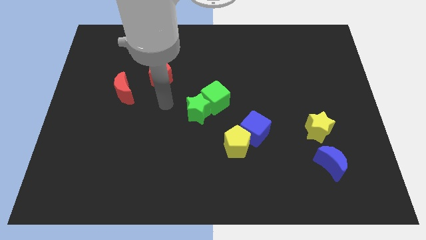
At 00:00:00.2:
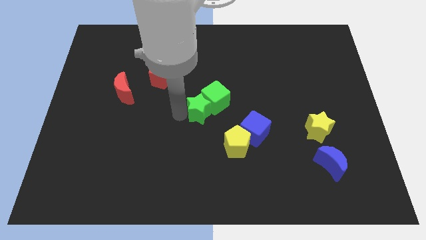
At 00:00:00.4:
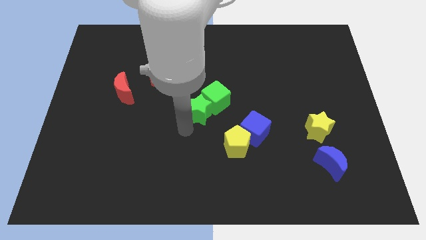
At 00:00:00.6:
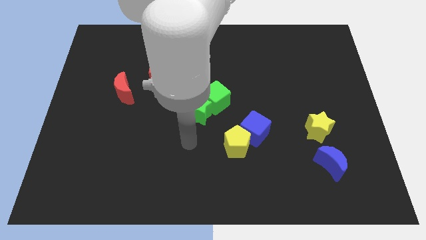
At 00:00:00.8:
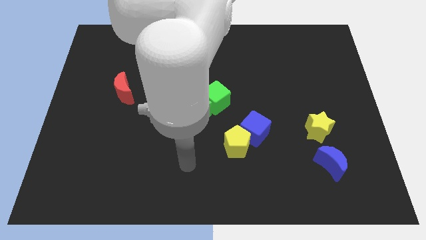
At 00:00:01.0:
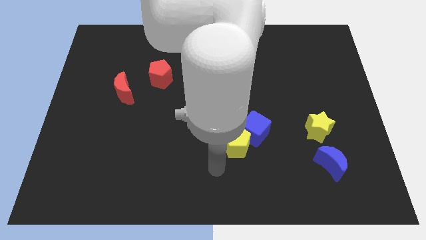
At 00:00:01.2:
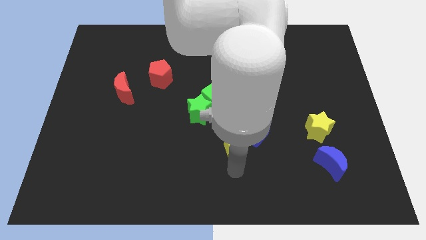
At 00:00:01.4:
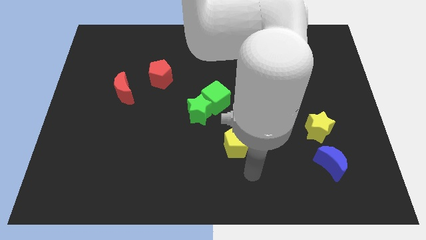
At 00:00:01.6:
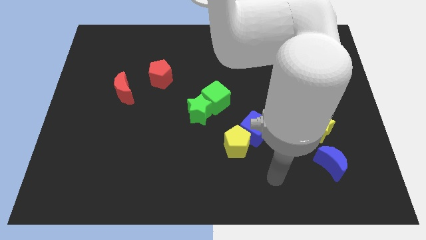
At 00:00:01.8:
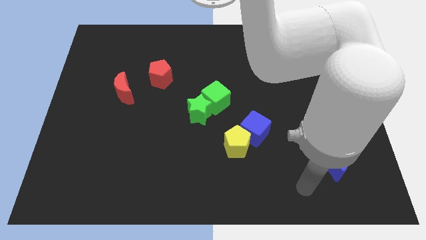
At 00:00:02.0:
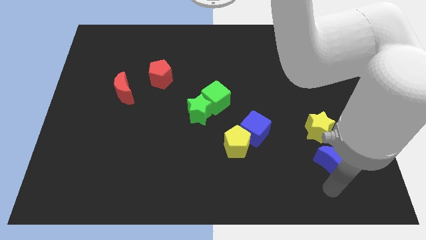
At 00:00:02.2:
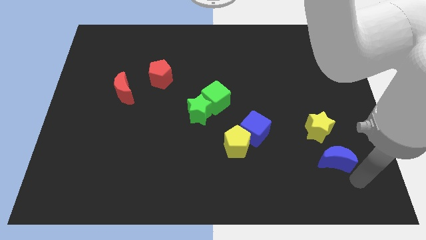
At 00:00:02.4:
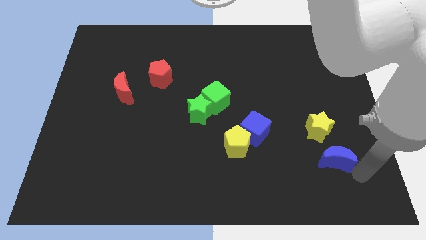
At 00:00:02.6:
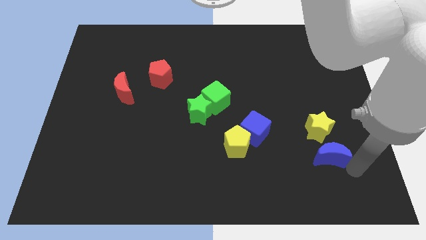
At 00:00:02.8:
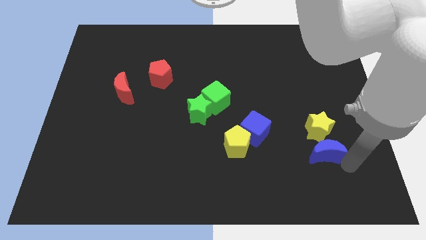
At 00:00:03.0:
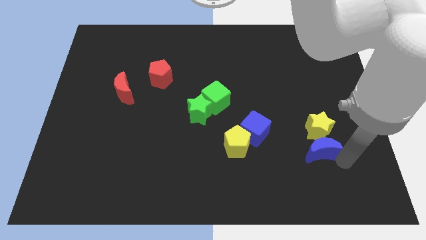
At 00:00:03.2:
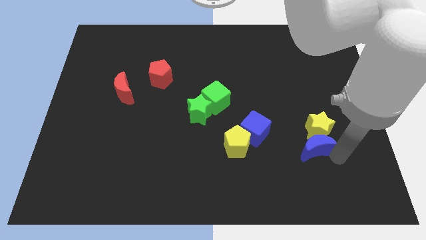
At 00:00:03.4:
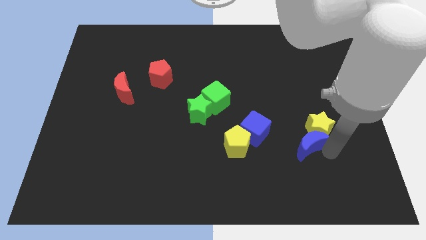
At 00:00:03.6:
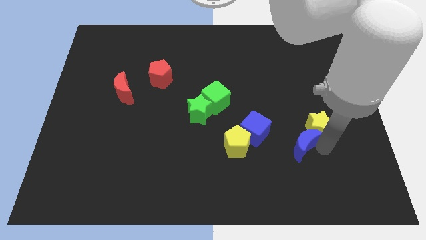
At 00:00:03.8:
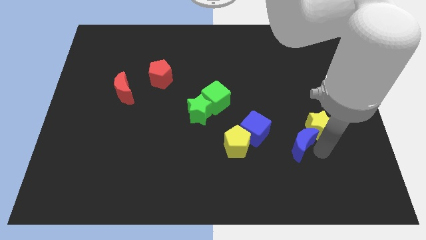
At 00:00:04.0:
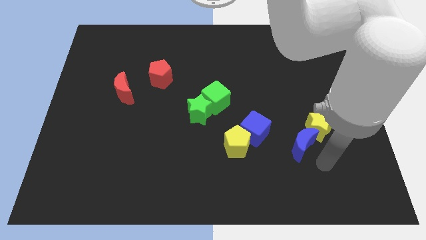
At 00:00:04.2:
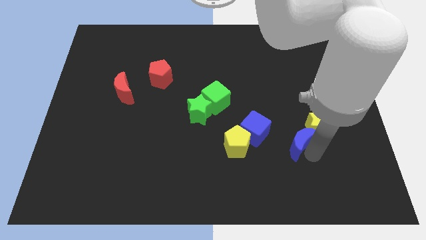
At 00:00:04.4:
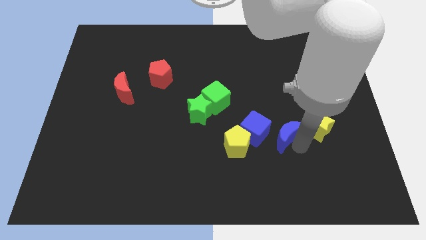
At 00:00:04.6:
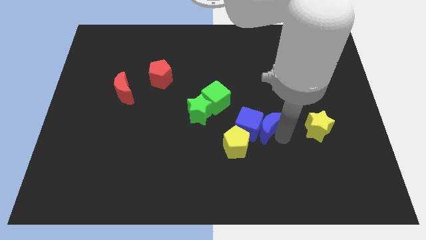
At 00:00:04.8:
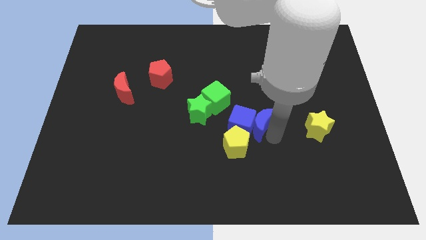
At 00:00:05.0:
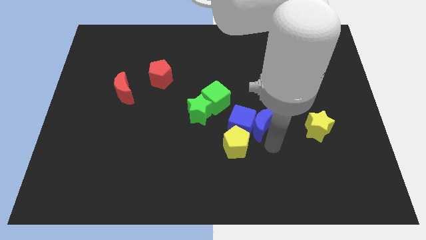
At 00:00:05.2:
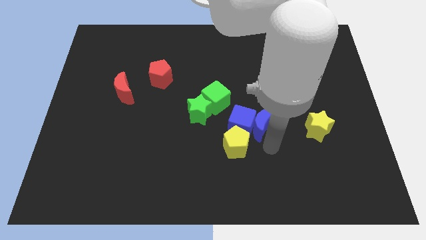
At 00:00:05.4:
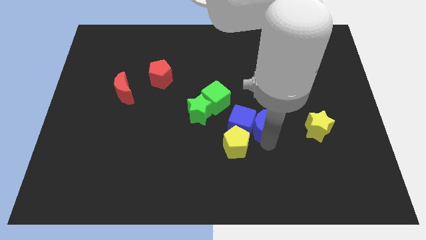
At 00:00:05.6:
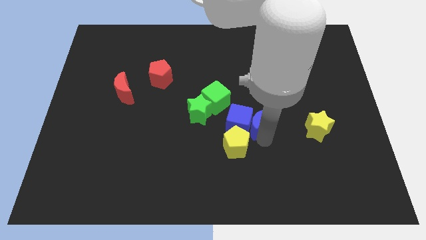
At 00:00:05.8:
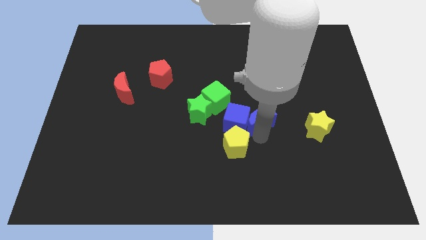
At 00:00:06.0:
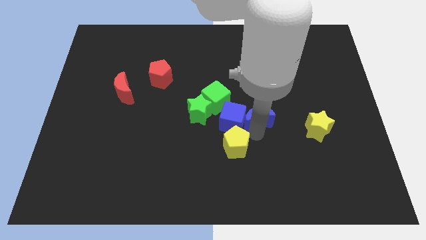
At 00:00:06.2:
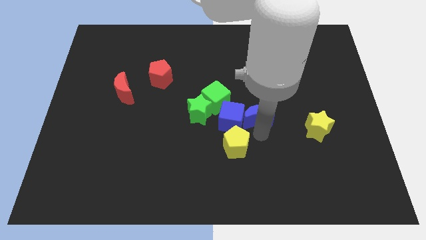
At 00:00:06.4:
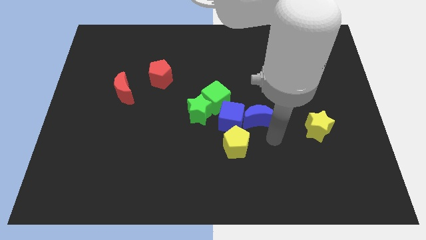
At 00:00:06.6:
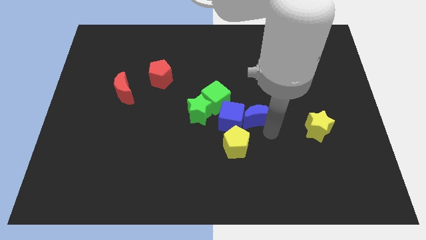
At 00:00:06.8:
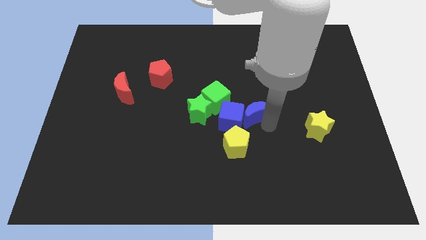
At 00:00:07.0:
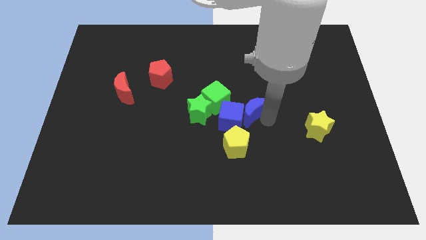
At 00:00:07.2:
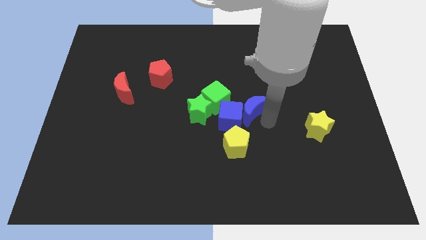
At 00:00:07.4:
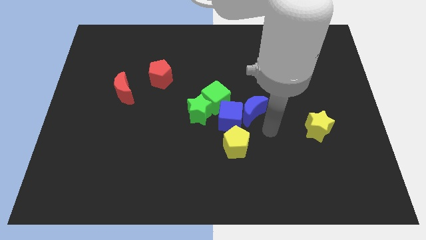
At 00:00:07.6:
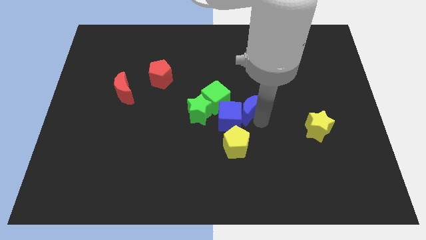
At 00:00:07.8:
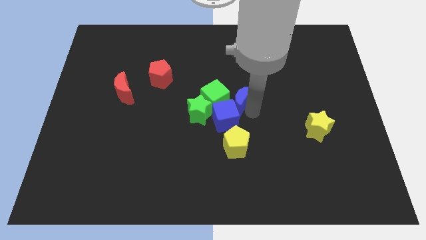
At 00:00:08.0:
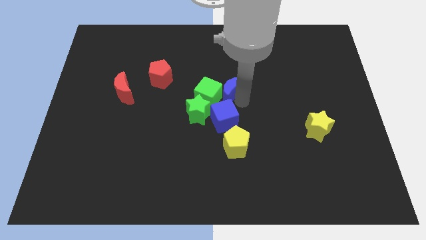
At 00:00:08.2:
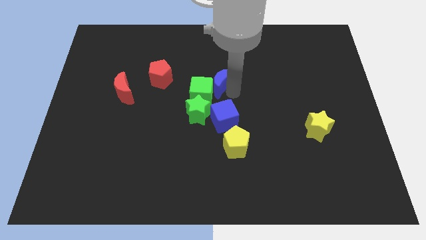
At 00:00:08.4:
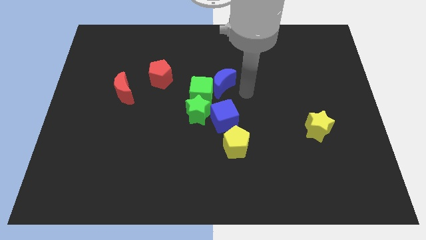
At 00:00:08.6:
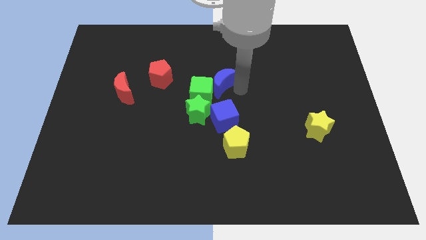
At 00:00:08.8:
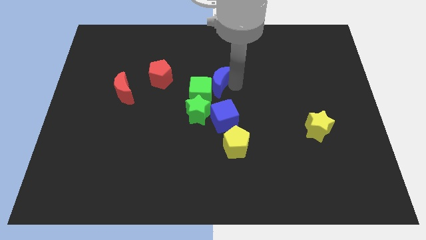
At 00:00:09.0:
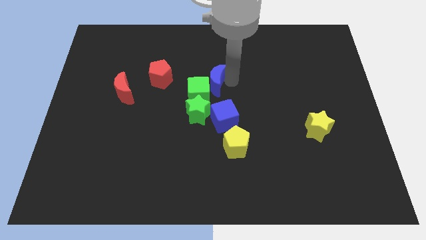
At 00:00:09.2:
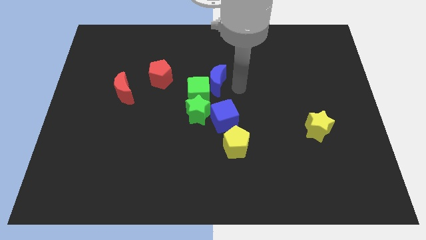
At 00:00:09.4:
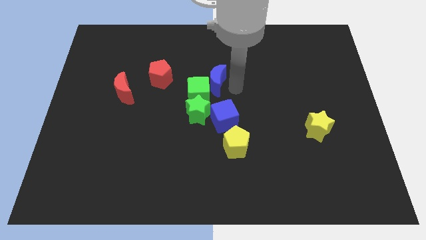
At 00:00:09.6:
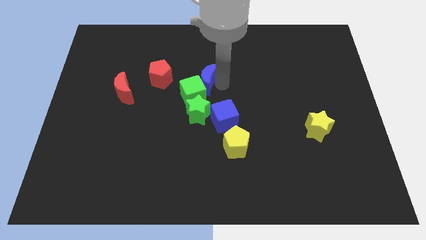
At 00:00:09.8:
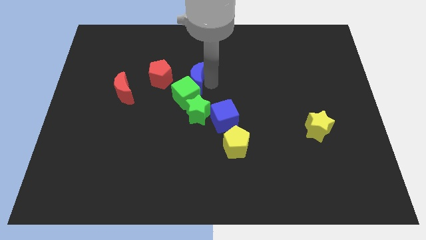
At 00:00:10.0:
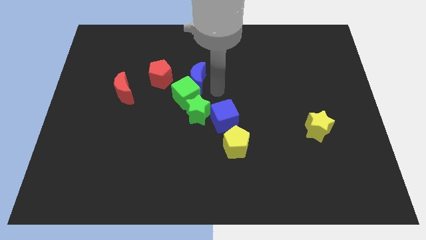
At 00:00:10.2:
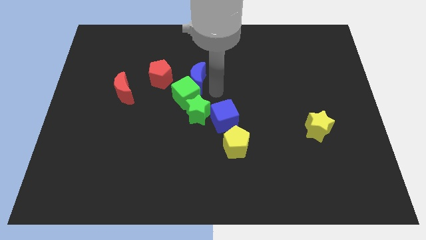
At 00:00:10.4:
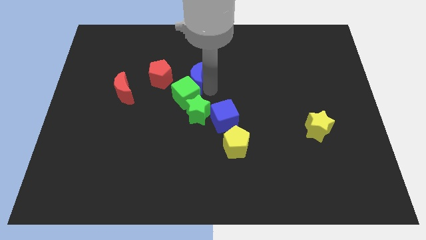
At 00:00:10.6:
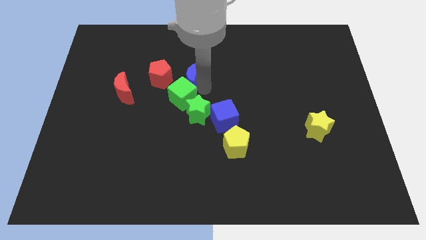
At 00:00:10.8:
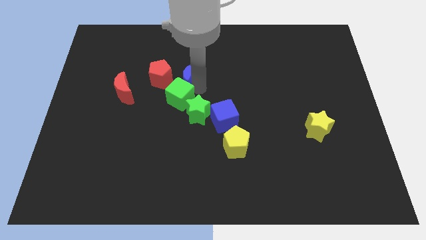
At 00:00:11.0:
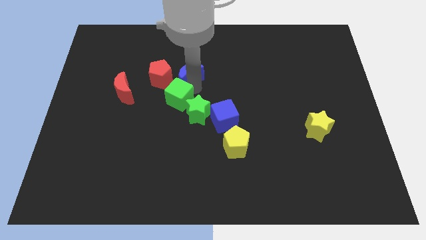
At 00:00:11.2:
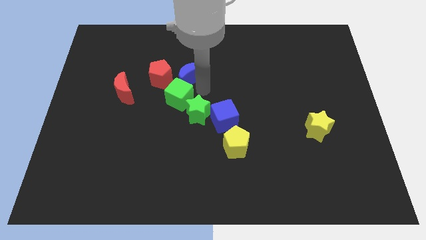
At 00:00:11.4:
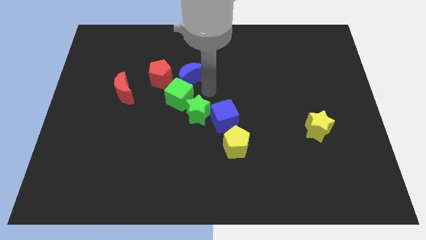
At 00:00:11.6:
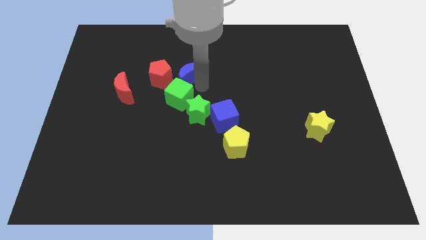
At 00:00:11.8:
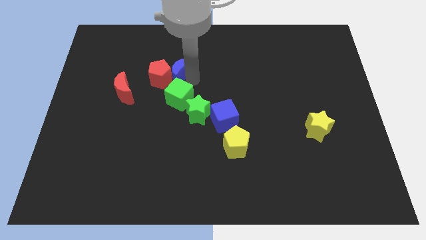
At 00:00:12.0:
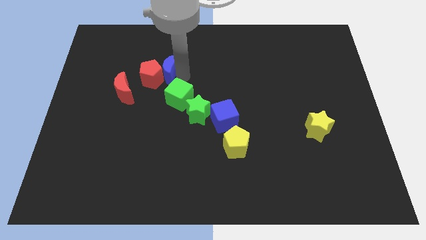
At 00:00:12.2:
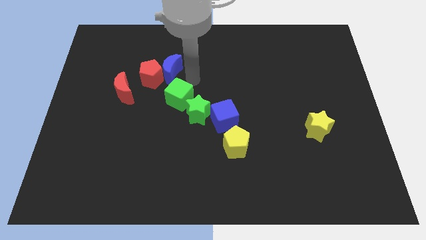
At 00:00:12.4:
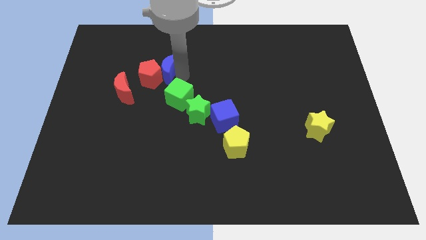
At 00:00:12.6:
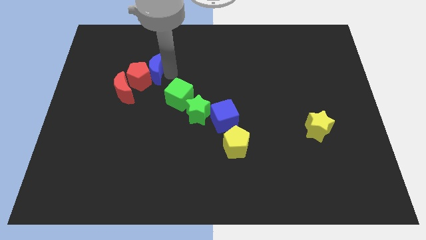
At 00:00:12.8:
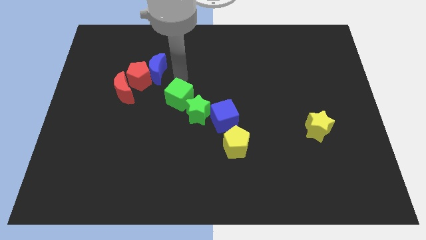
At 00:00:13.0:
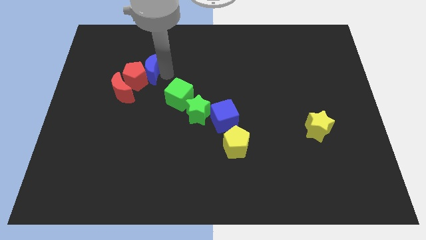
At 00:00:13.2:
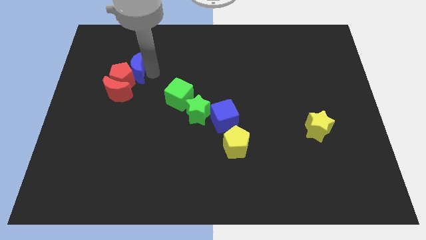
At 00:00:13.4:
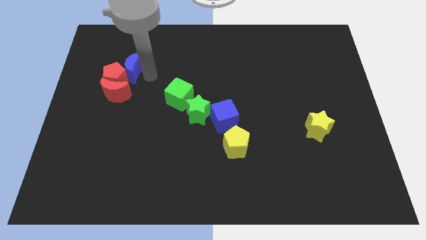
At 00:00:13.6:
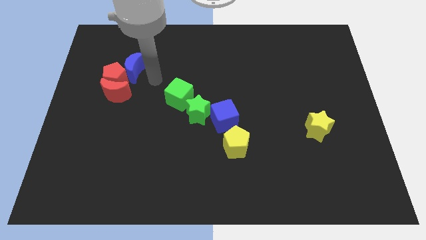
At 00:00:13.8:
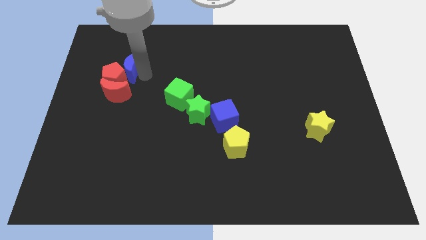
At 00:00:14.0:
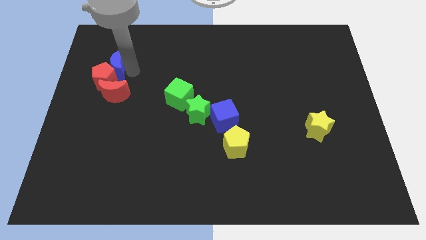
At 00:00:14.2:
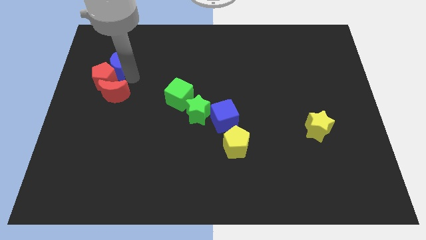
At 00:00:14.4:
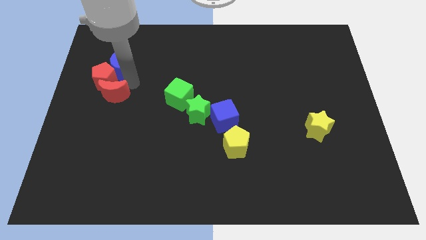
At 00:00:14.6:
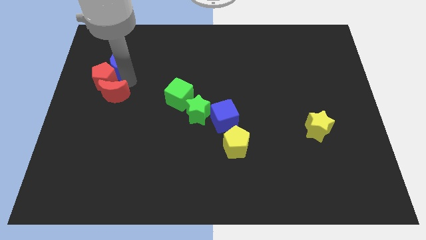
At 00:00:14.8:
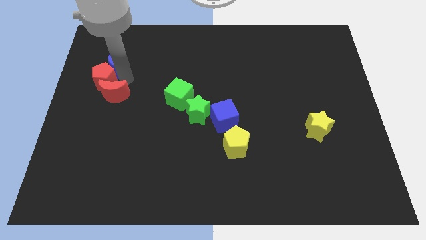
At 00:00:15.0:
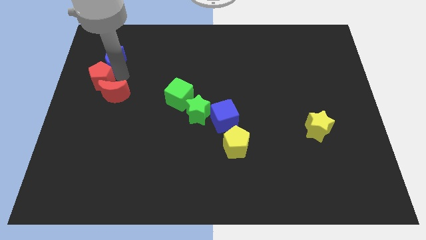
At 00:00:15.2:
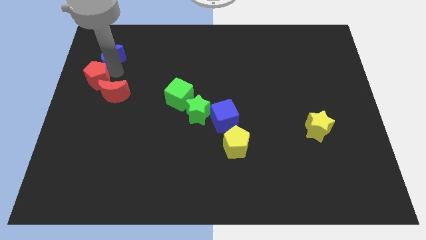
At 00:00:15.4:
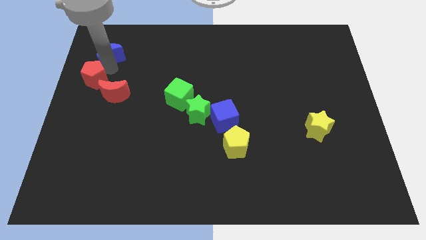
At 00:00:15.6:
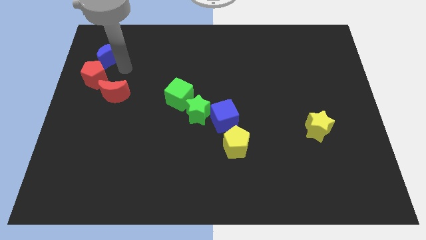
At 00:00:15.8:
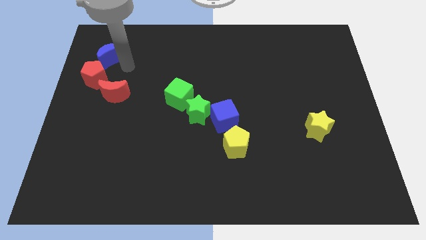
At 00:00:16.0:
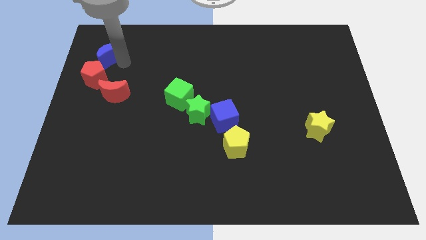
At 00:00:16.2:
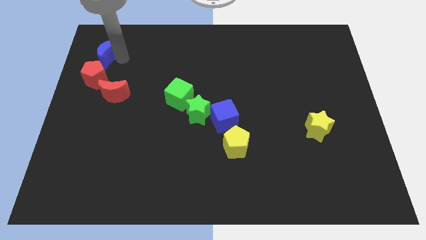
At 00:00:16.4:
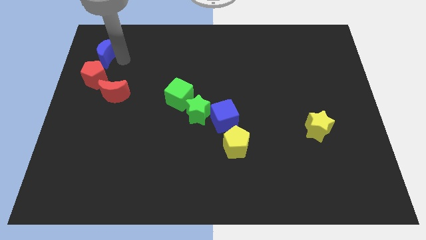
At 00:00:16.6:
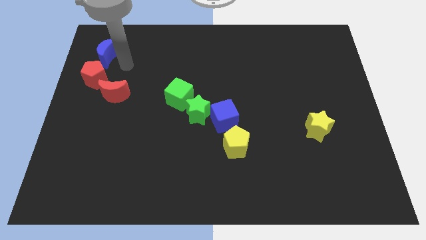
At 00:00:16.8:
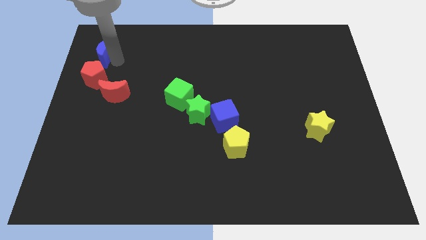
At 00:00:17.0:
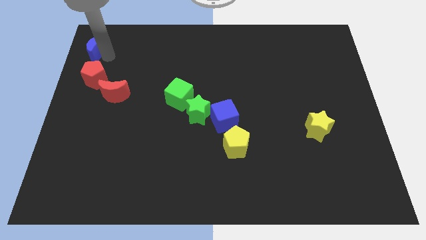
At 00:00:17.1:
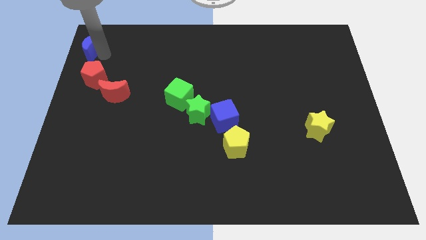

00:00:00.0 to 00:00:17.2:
push the blue moon to the top left of the board
